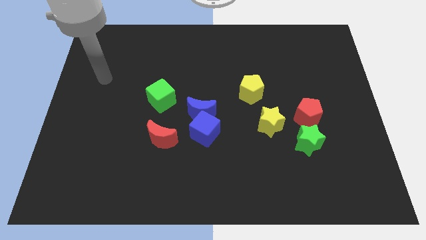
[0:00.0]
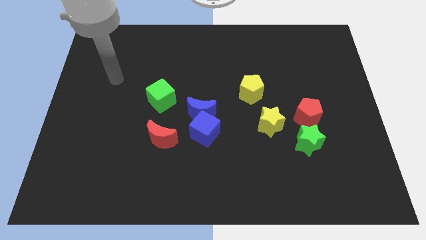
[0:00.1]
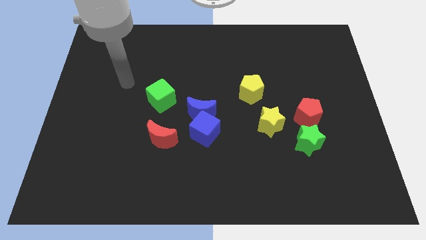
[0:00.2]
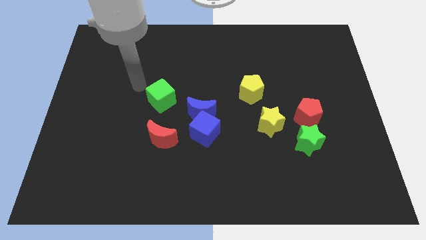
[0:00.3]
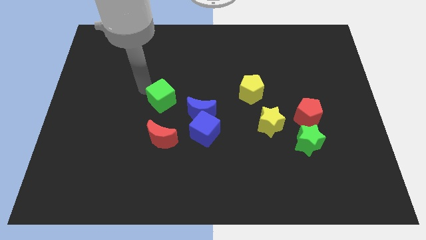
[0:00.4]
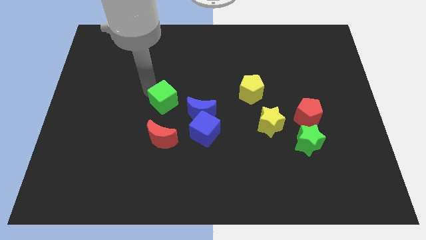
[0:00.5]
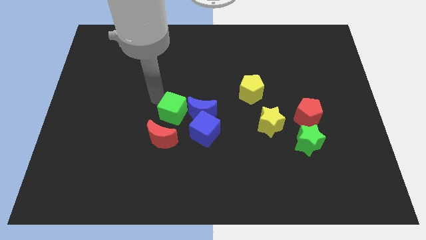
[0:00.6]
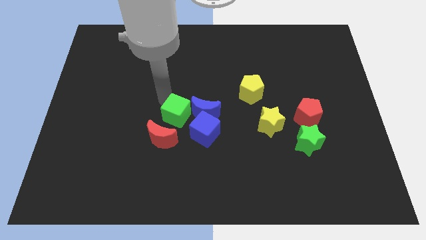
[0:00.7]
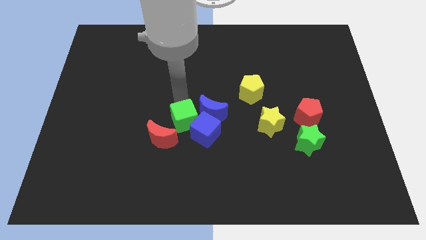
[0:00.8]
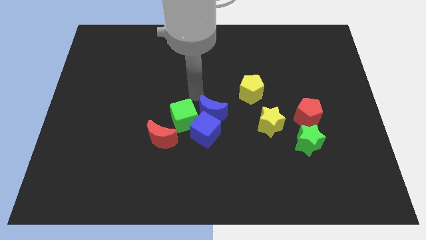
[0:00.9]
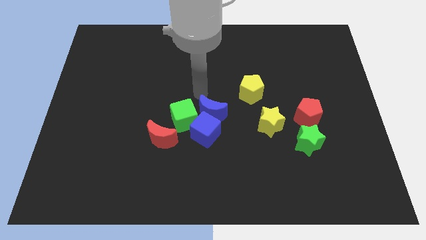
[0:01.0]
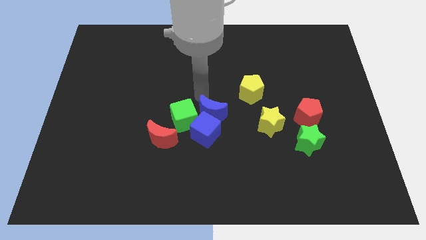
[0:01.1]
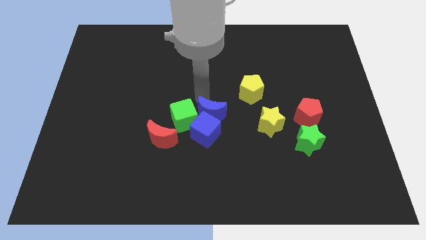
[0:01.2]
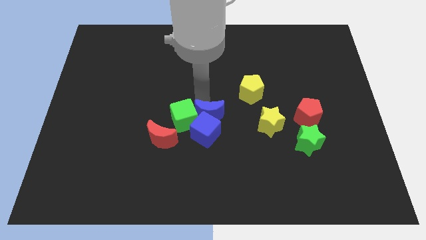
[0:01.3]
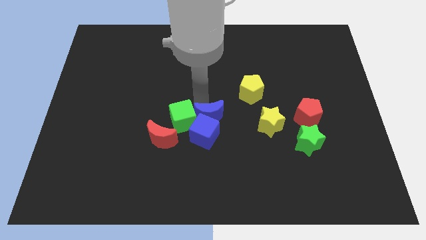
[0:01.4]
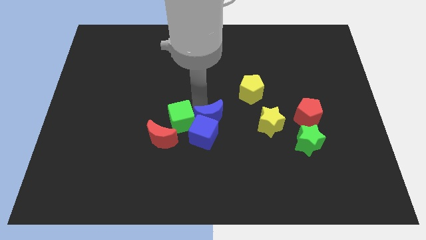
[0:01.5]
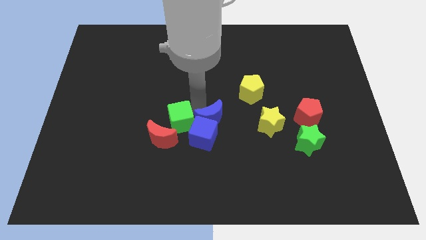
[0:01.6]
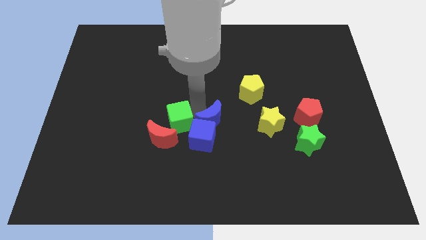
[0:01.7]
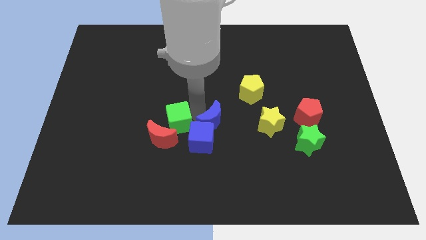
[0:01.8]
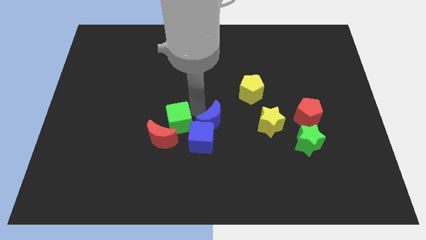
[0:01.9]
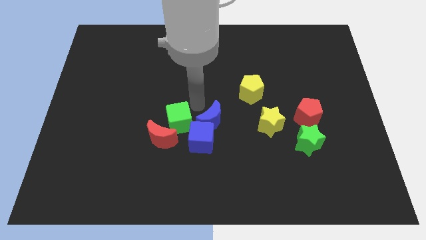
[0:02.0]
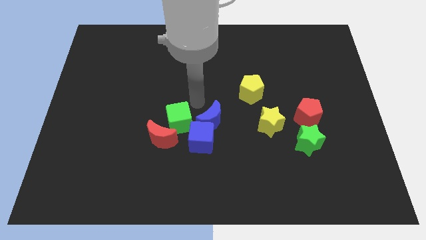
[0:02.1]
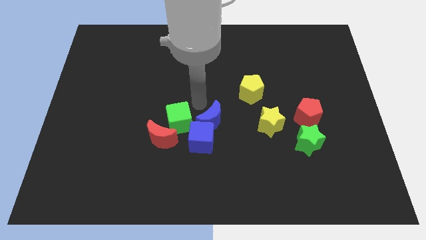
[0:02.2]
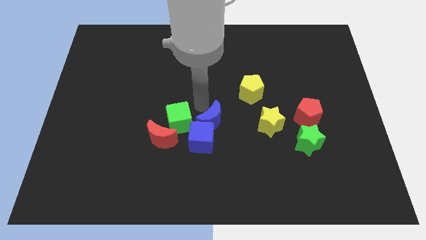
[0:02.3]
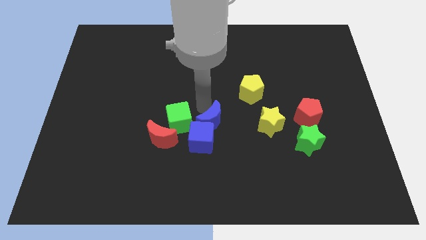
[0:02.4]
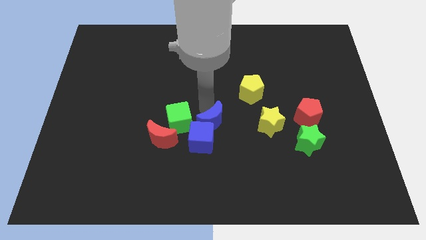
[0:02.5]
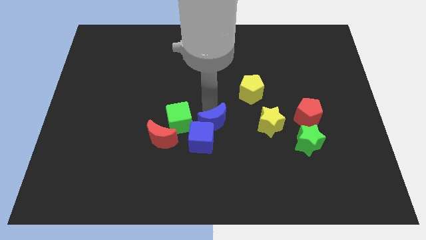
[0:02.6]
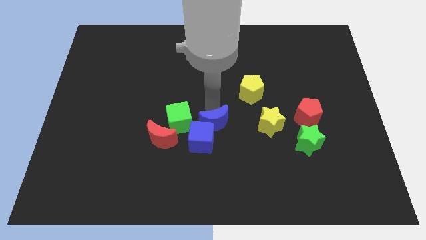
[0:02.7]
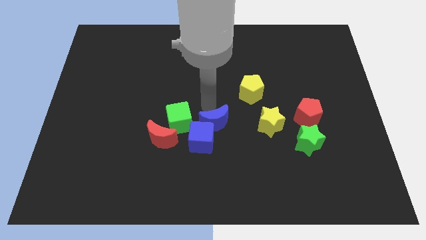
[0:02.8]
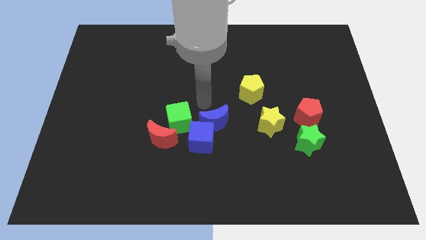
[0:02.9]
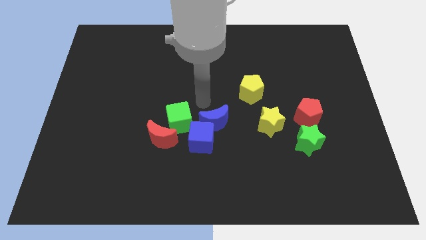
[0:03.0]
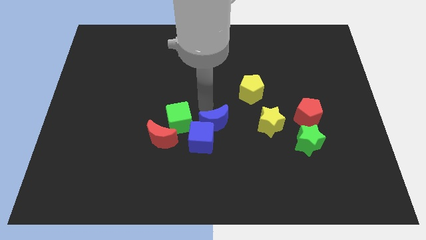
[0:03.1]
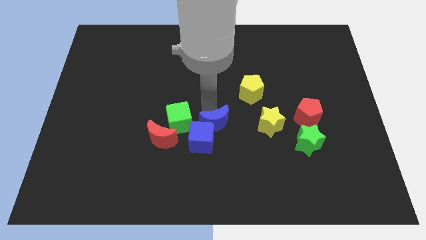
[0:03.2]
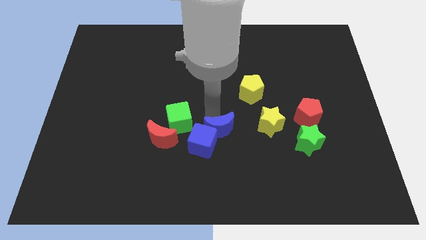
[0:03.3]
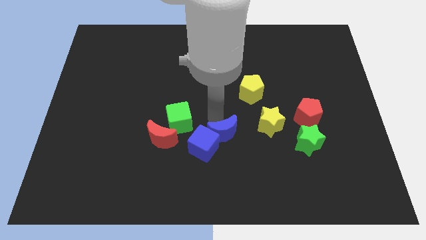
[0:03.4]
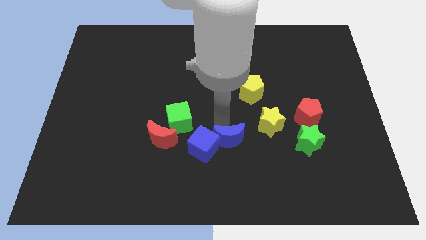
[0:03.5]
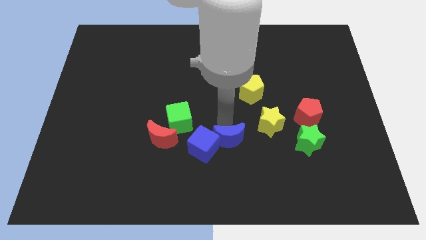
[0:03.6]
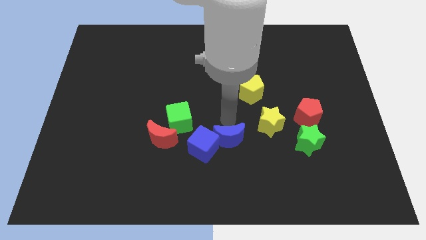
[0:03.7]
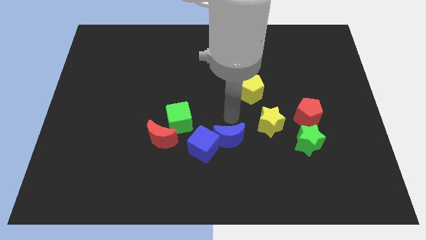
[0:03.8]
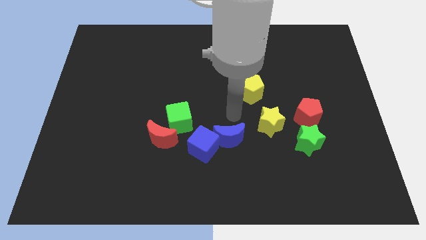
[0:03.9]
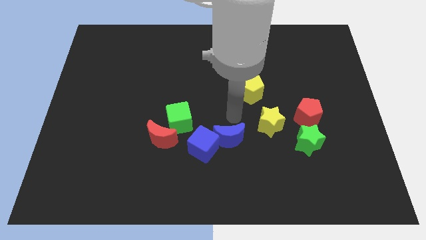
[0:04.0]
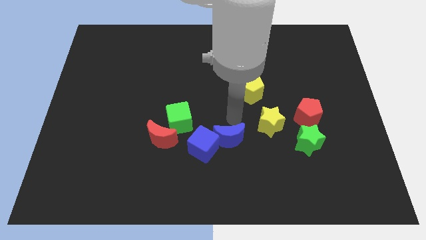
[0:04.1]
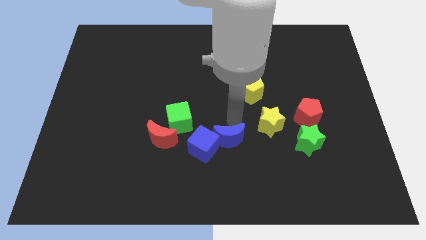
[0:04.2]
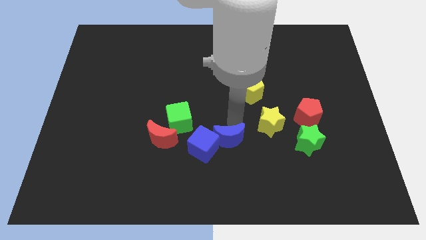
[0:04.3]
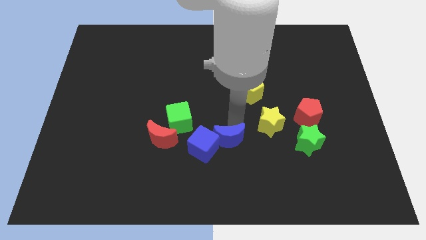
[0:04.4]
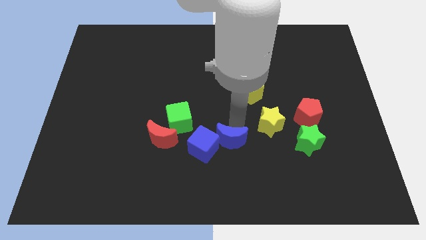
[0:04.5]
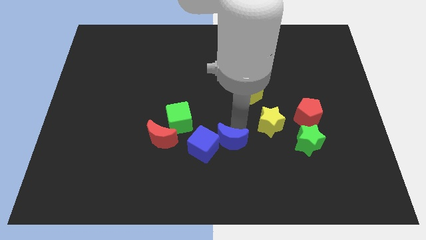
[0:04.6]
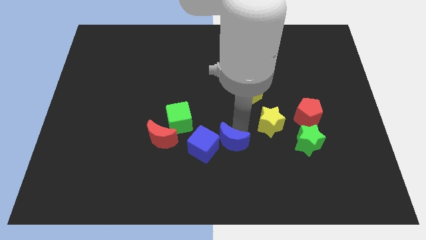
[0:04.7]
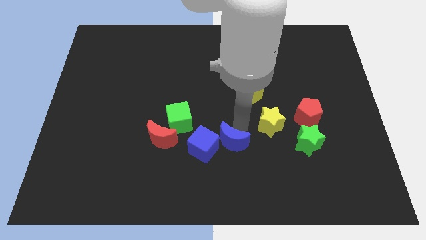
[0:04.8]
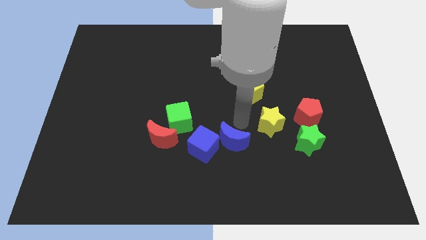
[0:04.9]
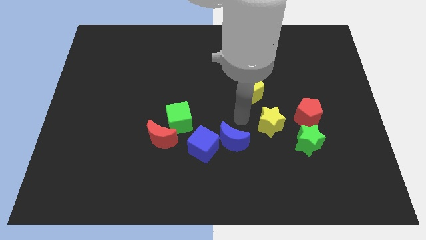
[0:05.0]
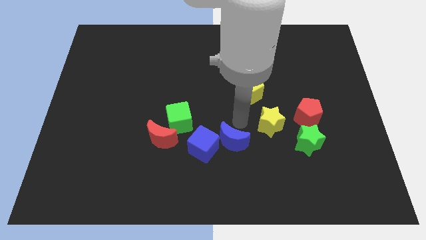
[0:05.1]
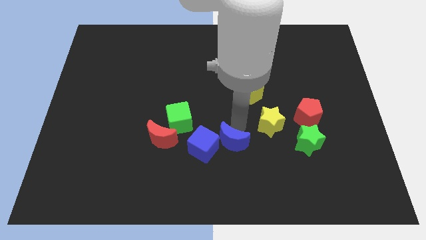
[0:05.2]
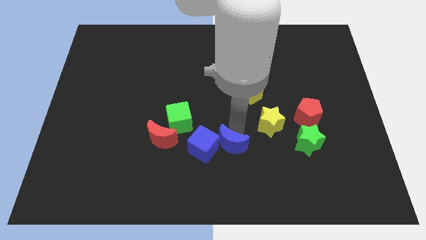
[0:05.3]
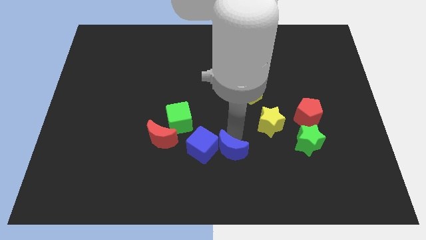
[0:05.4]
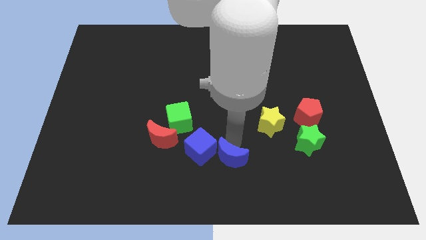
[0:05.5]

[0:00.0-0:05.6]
push the blue moon to the bottom

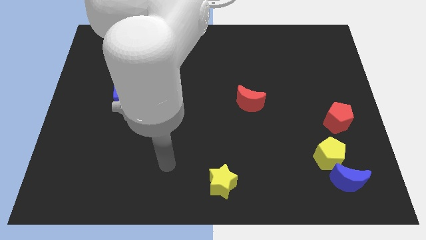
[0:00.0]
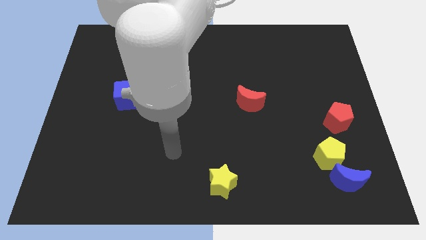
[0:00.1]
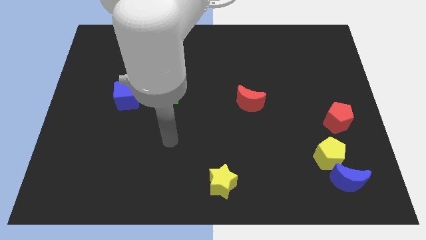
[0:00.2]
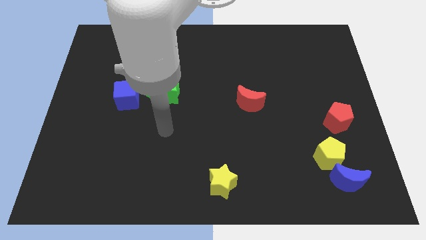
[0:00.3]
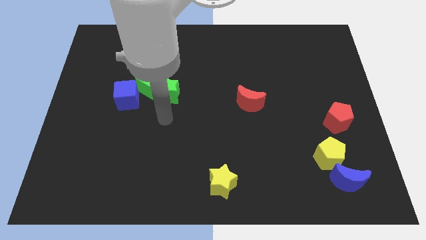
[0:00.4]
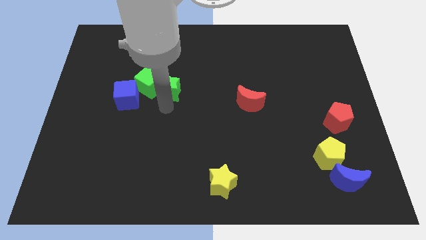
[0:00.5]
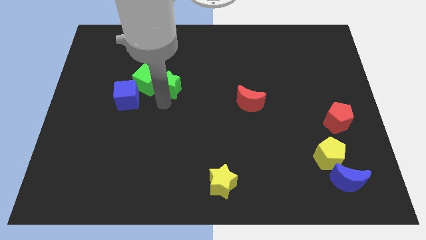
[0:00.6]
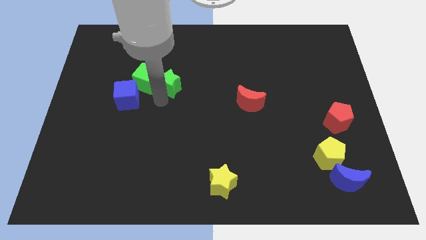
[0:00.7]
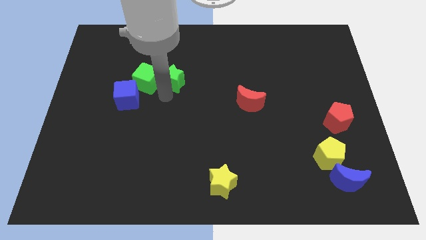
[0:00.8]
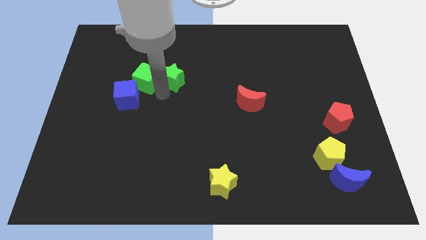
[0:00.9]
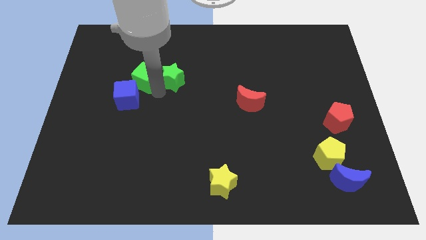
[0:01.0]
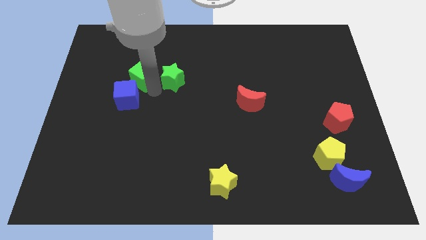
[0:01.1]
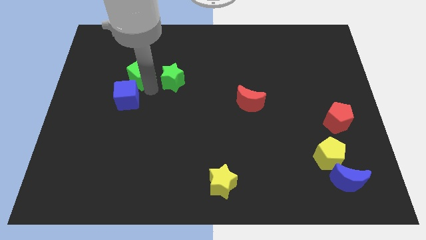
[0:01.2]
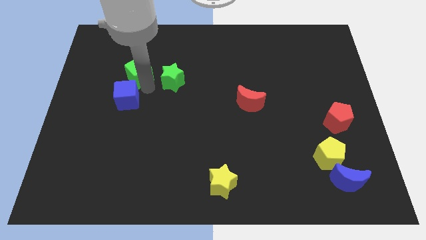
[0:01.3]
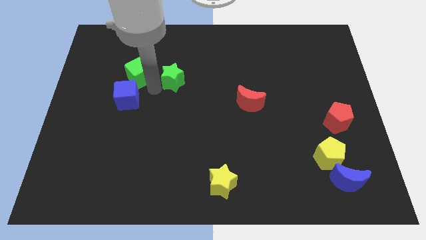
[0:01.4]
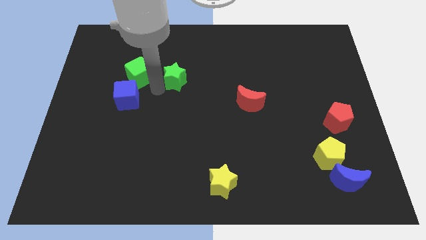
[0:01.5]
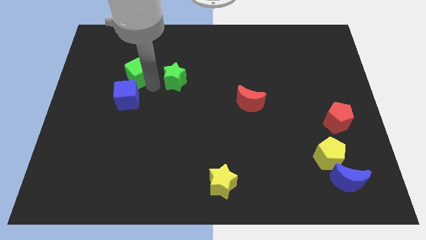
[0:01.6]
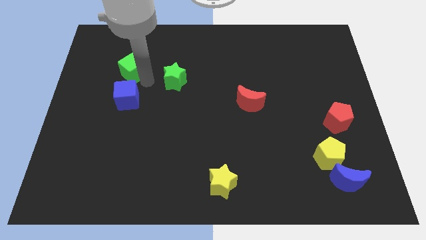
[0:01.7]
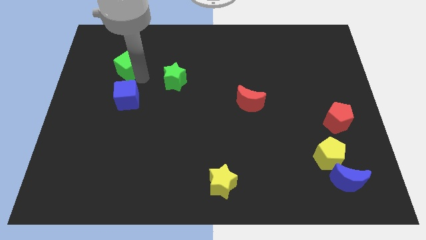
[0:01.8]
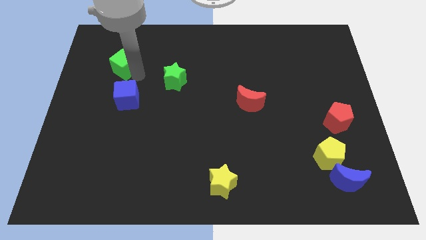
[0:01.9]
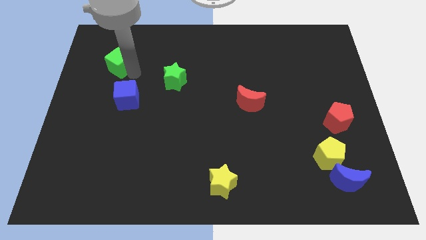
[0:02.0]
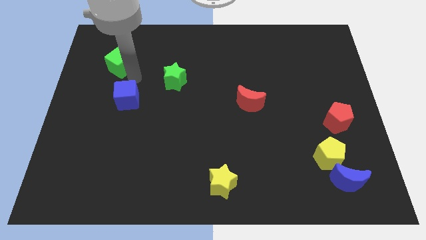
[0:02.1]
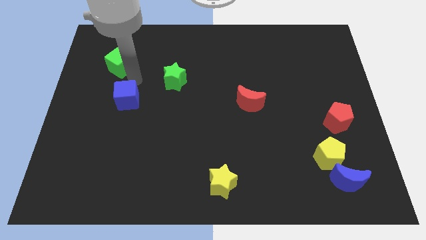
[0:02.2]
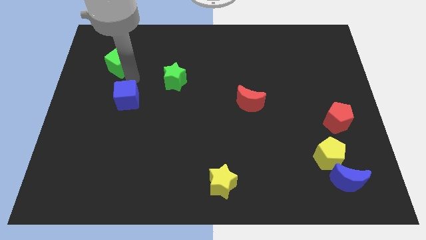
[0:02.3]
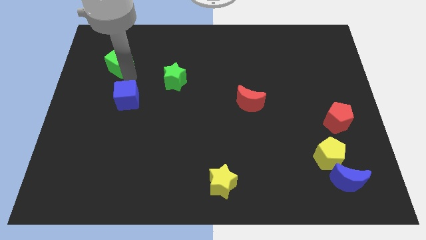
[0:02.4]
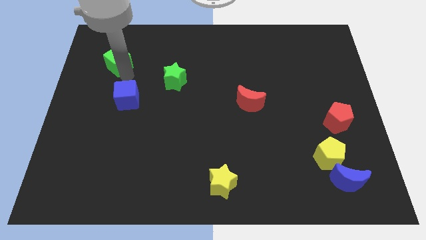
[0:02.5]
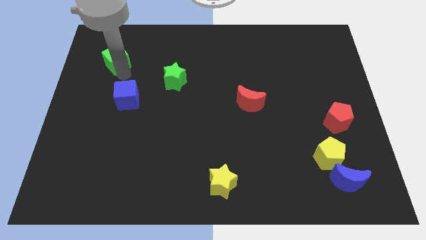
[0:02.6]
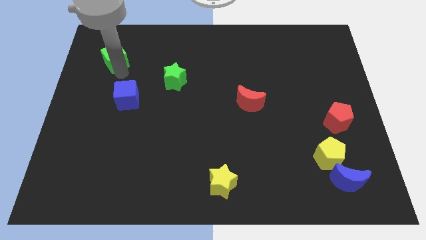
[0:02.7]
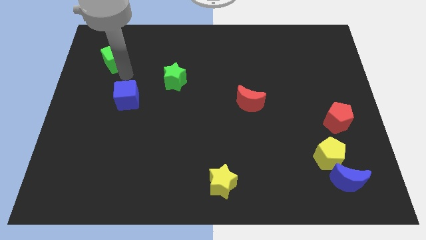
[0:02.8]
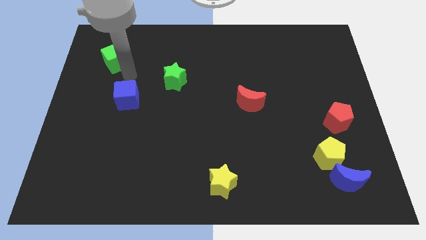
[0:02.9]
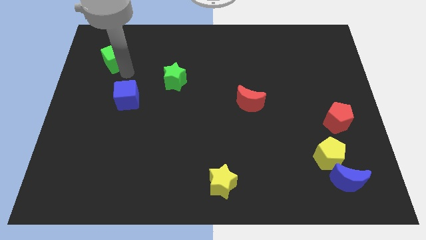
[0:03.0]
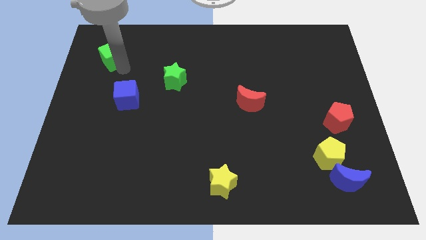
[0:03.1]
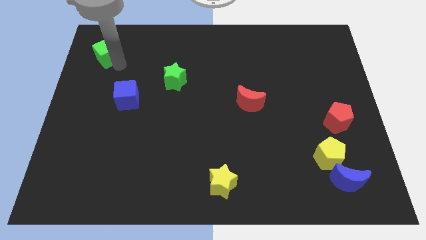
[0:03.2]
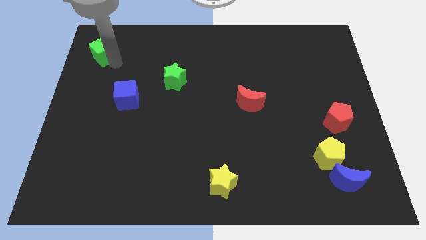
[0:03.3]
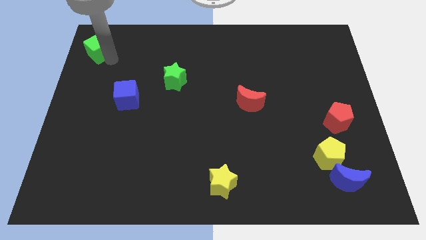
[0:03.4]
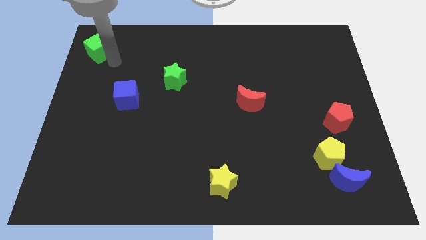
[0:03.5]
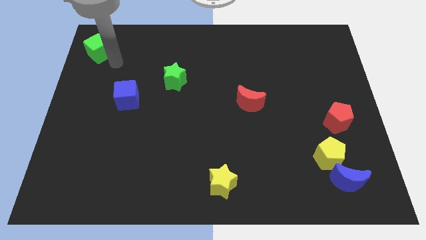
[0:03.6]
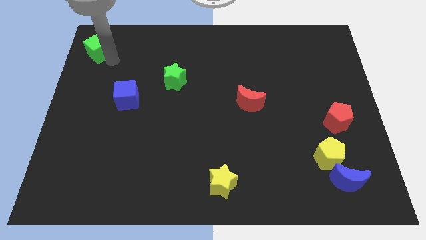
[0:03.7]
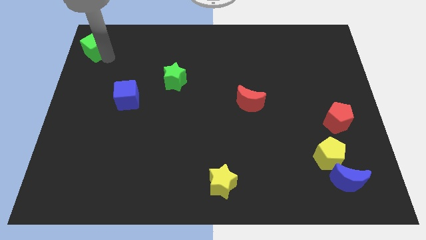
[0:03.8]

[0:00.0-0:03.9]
move the green cube to the top left
